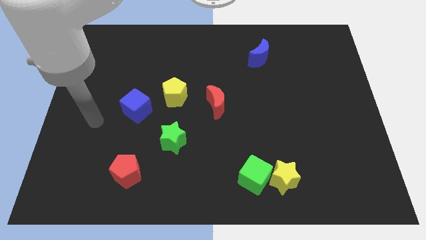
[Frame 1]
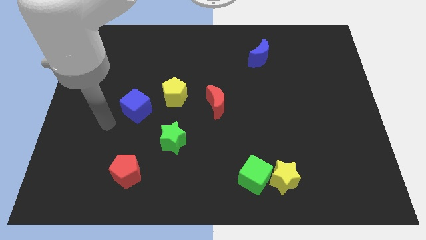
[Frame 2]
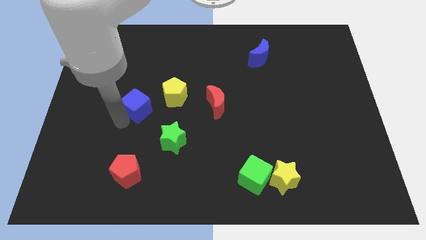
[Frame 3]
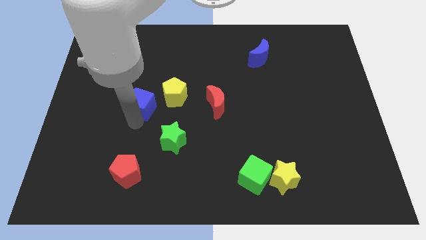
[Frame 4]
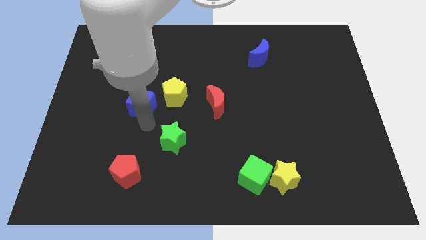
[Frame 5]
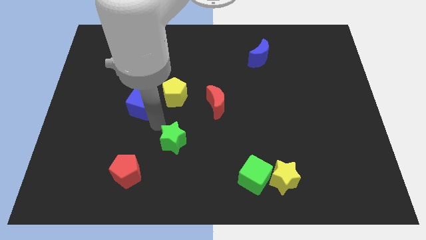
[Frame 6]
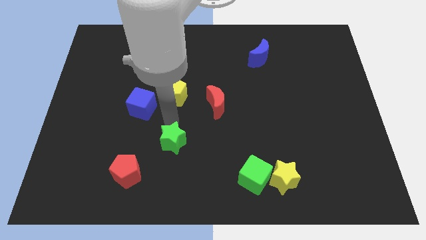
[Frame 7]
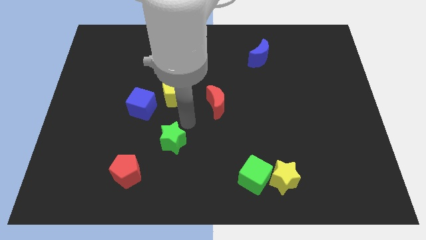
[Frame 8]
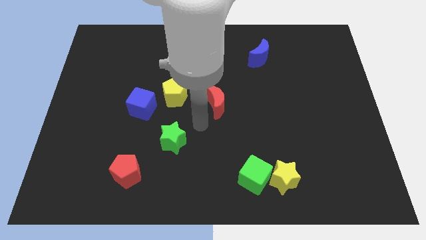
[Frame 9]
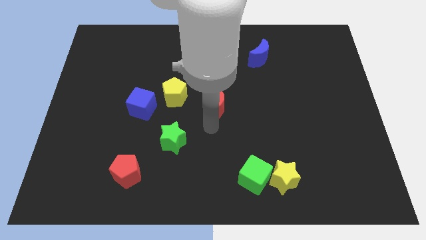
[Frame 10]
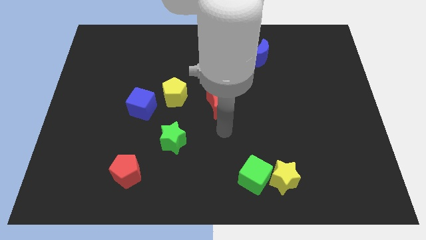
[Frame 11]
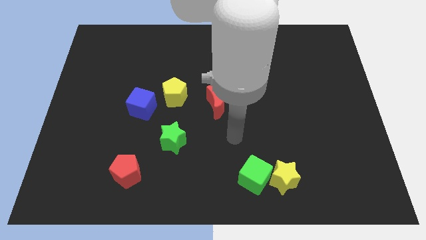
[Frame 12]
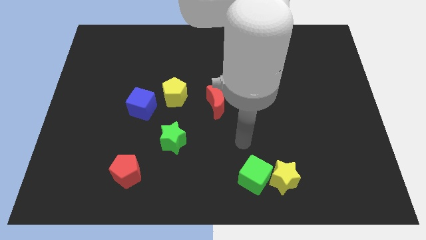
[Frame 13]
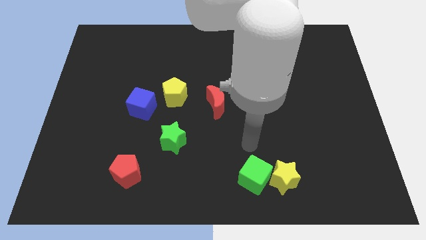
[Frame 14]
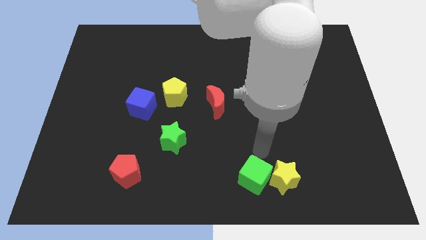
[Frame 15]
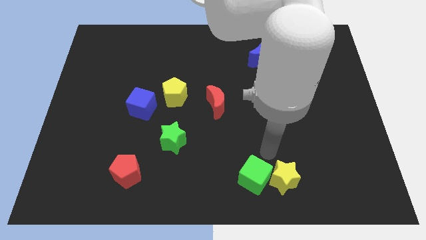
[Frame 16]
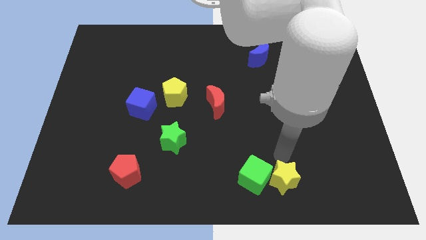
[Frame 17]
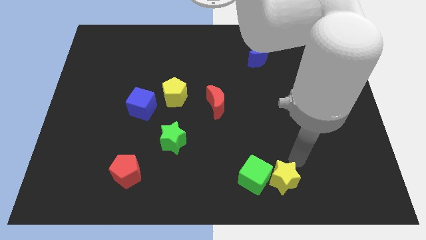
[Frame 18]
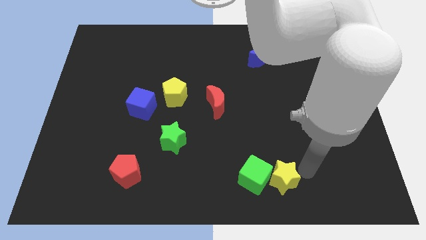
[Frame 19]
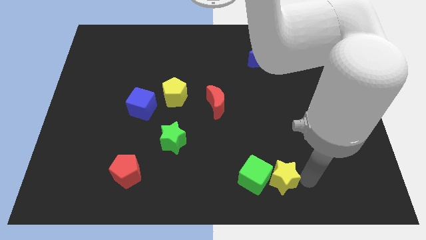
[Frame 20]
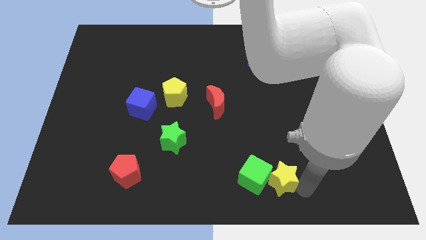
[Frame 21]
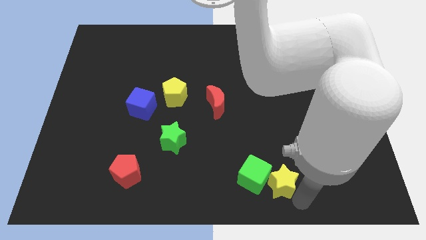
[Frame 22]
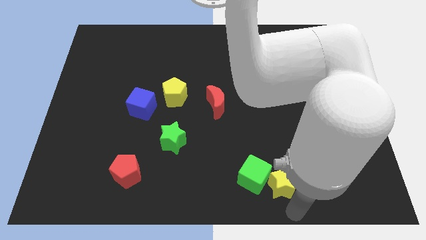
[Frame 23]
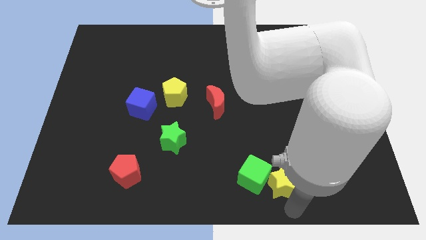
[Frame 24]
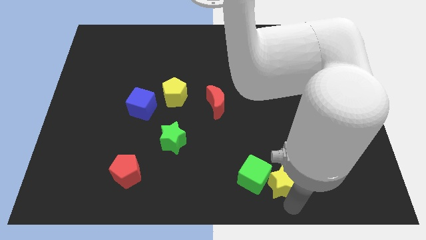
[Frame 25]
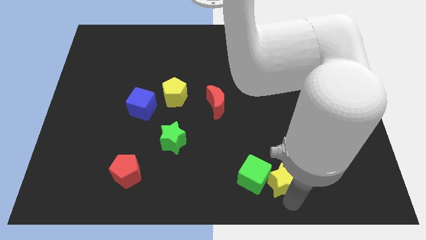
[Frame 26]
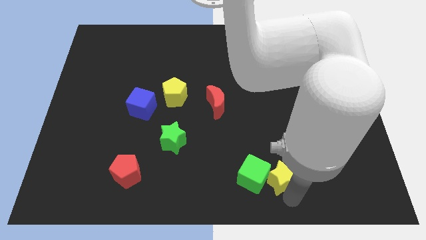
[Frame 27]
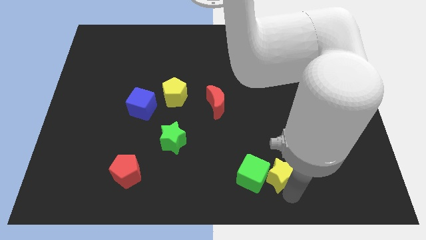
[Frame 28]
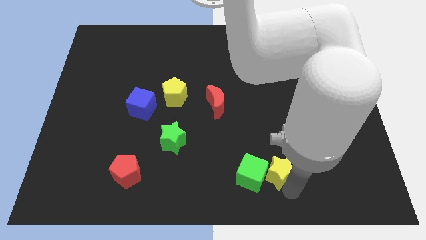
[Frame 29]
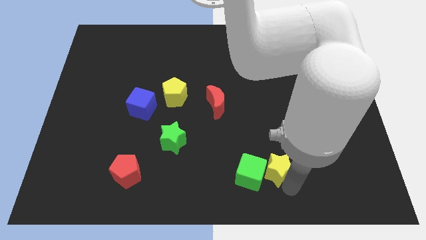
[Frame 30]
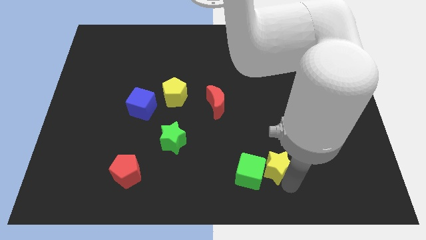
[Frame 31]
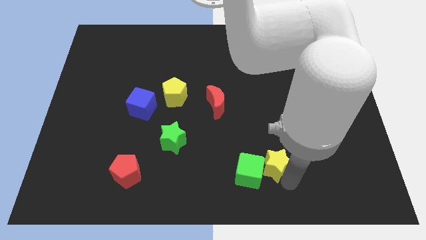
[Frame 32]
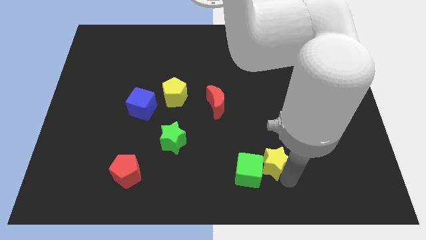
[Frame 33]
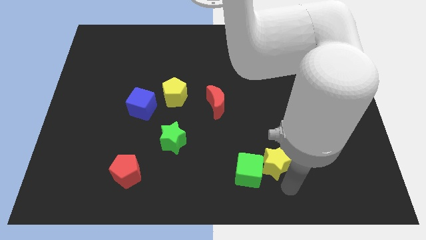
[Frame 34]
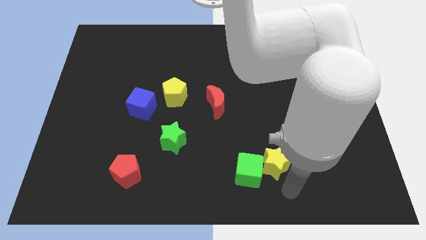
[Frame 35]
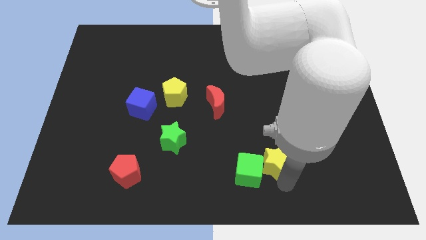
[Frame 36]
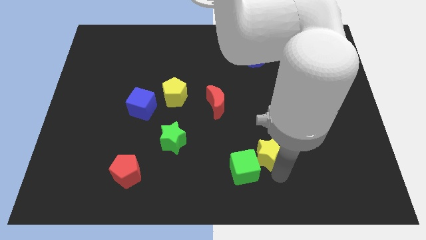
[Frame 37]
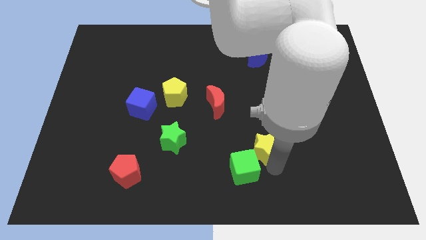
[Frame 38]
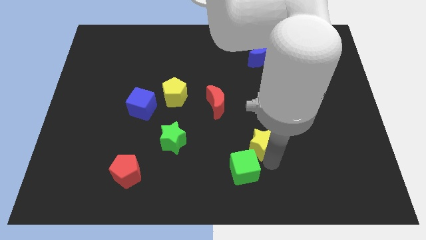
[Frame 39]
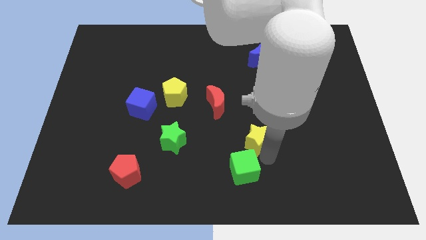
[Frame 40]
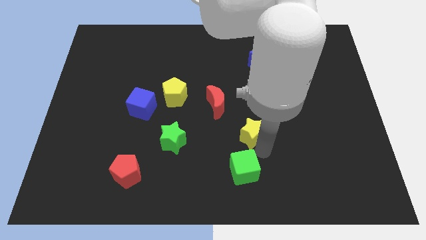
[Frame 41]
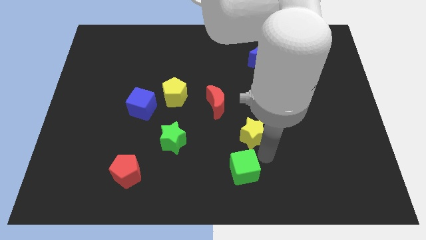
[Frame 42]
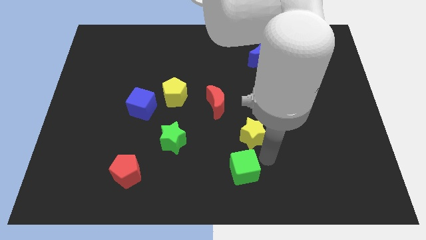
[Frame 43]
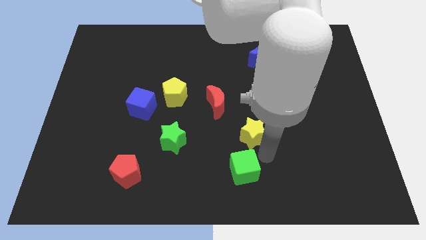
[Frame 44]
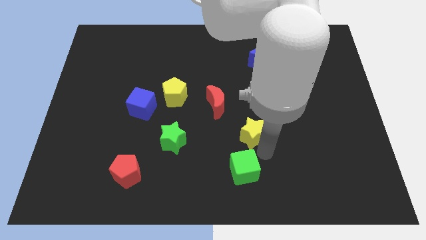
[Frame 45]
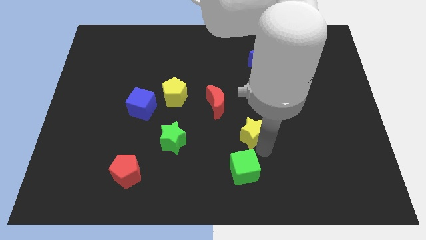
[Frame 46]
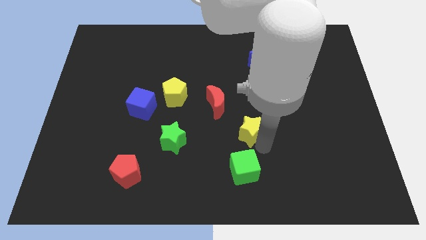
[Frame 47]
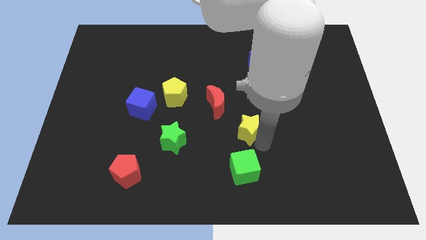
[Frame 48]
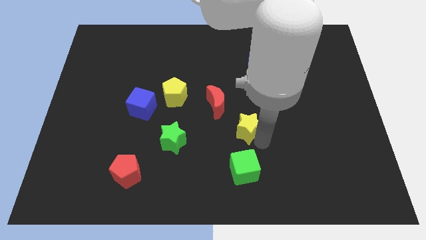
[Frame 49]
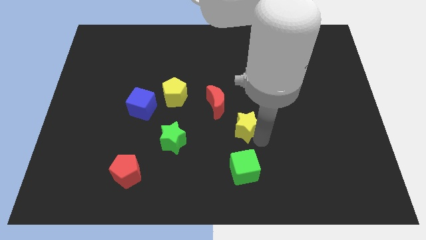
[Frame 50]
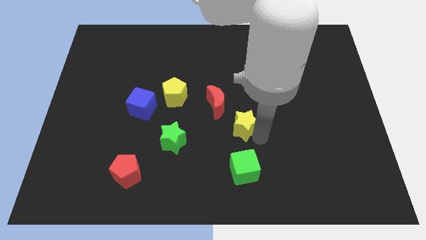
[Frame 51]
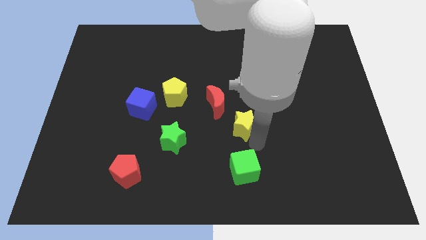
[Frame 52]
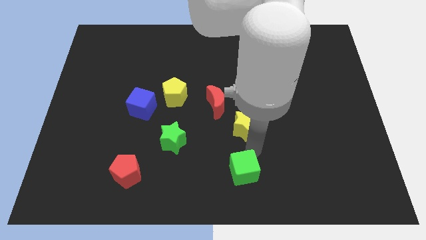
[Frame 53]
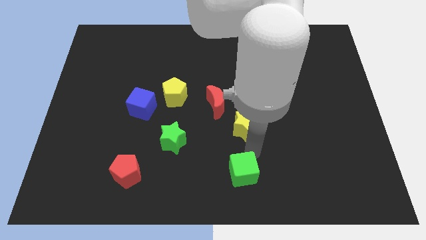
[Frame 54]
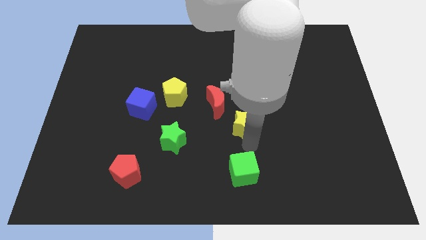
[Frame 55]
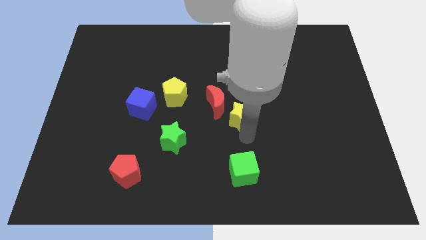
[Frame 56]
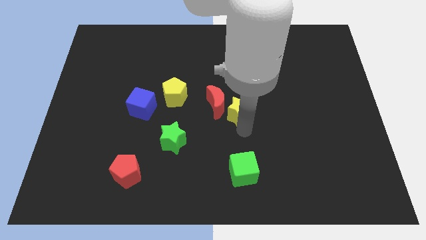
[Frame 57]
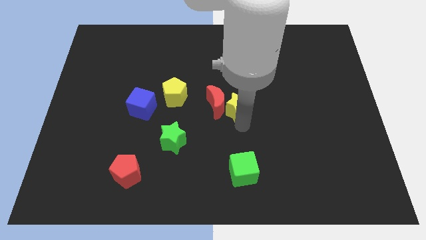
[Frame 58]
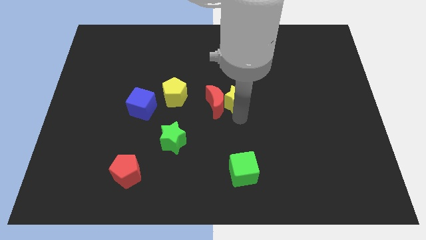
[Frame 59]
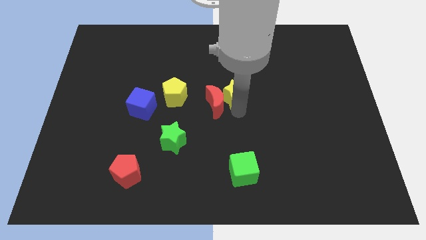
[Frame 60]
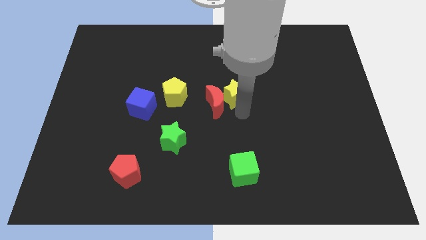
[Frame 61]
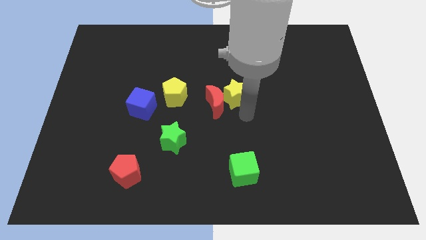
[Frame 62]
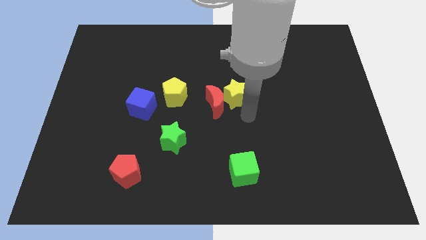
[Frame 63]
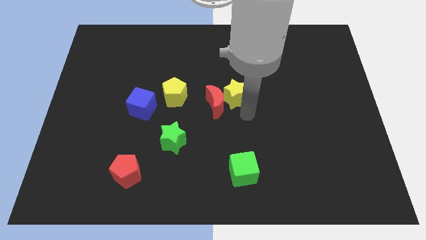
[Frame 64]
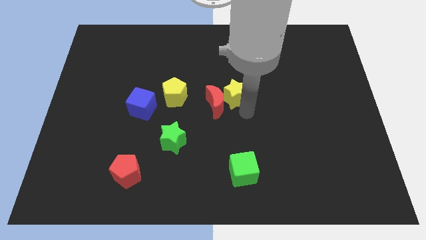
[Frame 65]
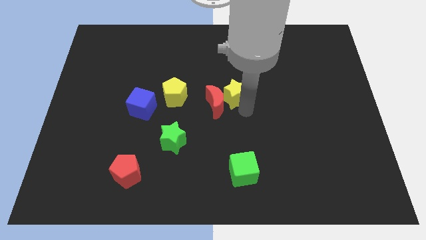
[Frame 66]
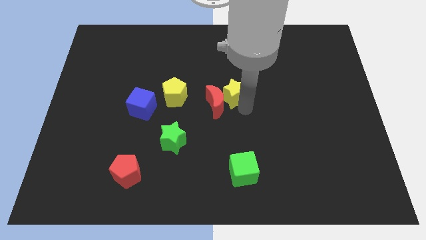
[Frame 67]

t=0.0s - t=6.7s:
move the yellow star to the top side of the red moon

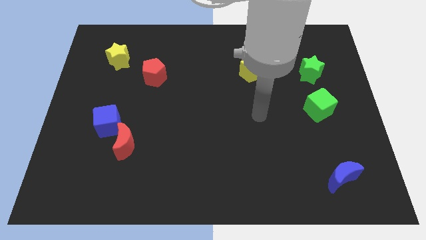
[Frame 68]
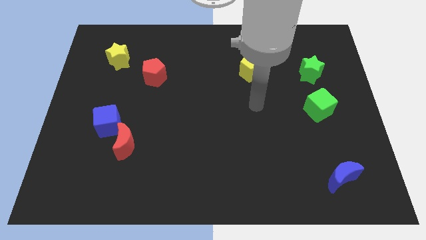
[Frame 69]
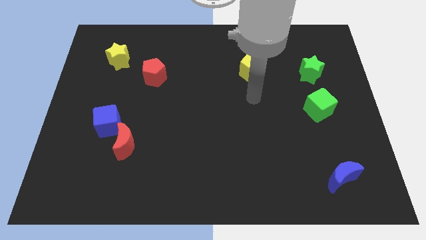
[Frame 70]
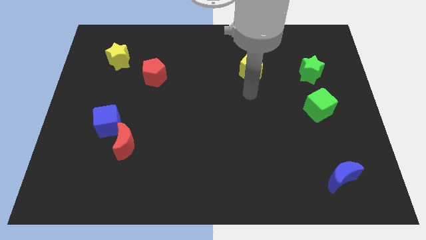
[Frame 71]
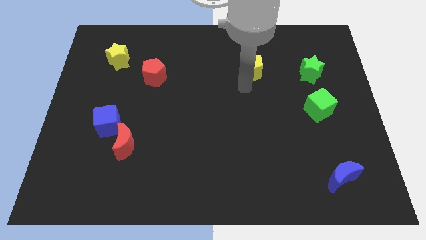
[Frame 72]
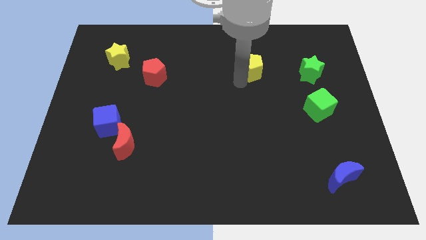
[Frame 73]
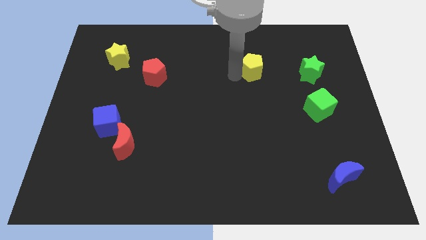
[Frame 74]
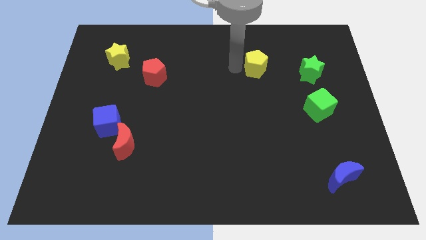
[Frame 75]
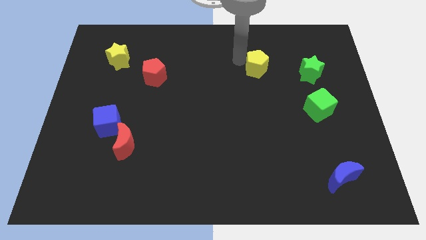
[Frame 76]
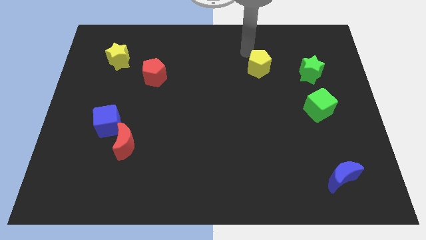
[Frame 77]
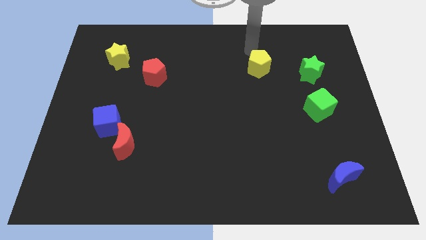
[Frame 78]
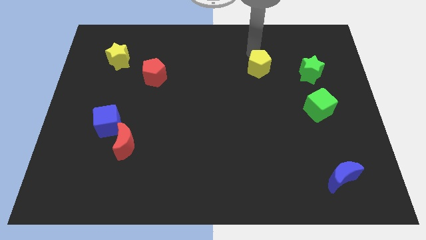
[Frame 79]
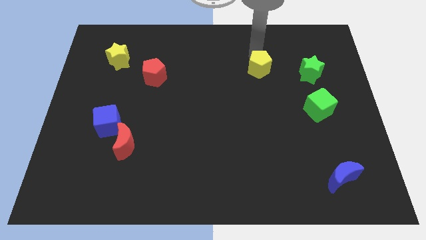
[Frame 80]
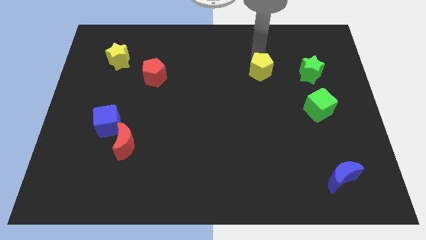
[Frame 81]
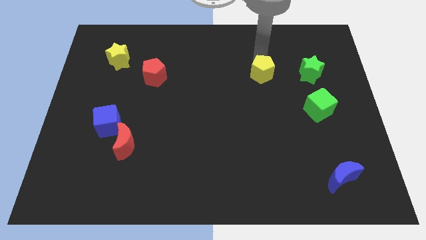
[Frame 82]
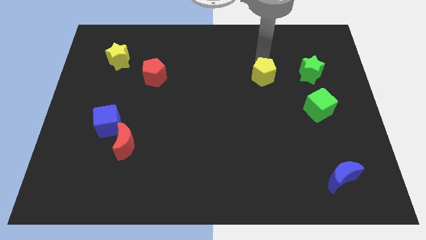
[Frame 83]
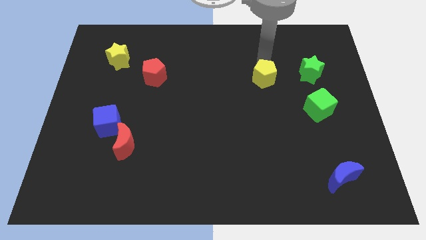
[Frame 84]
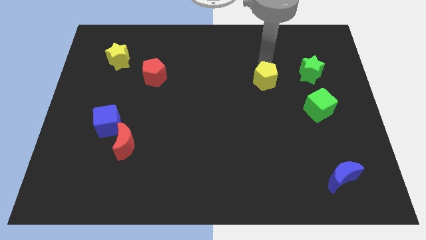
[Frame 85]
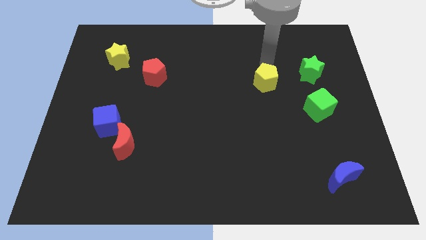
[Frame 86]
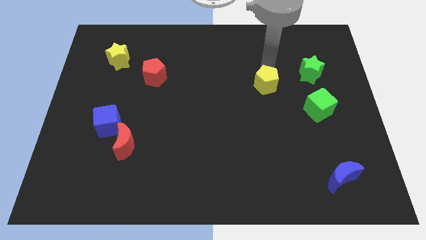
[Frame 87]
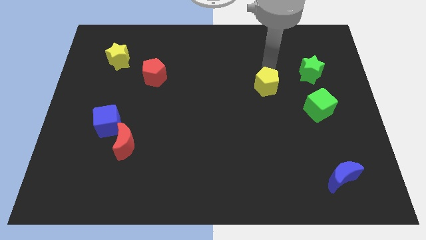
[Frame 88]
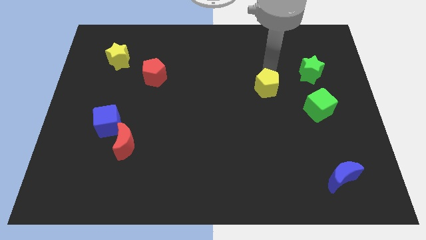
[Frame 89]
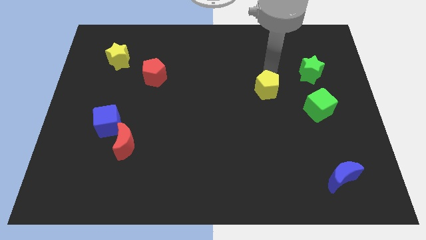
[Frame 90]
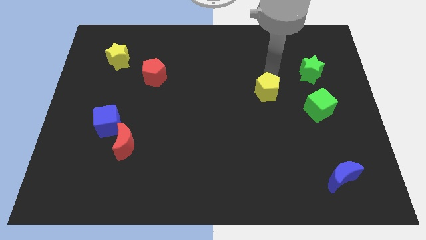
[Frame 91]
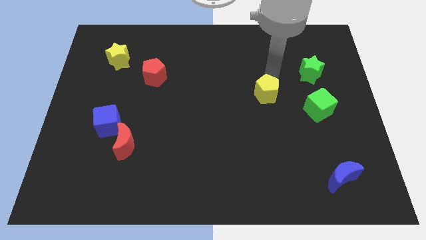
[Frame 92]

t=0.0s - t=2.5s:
move the yellow pentagon just left of the green cube
